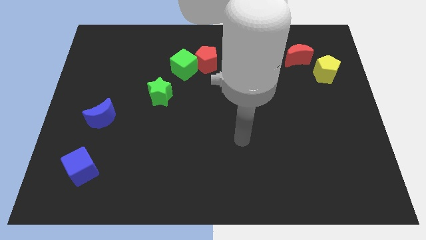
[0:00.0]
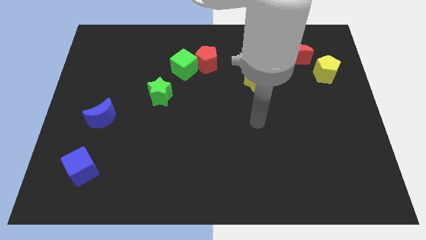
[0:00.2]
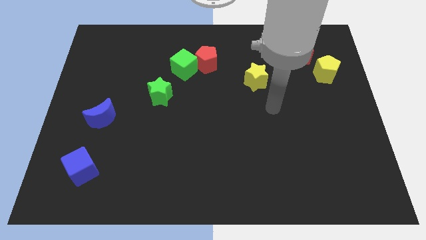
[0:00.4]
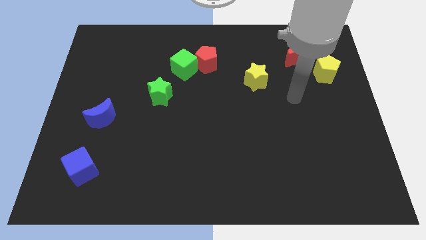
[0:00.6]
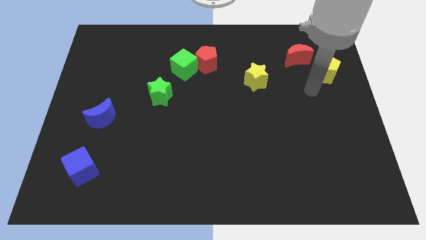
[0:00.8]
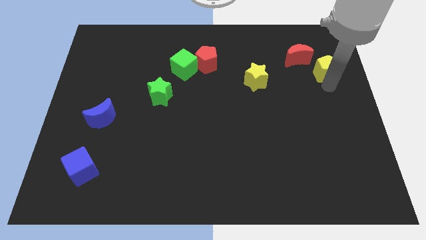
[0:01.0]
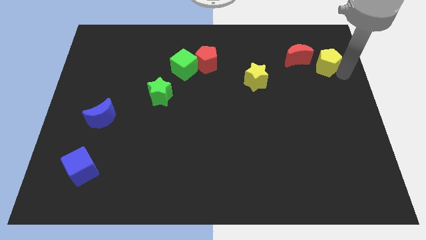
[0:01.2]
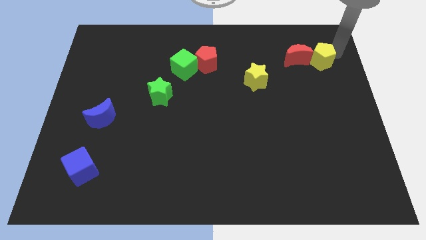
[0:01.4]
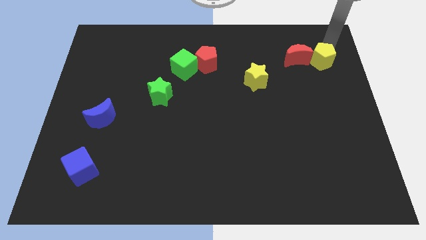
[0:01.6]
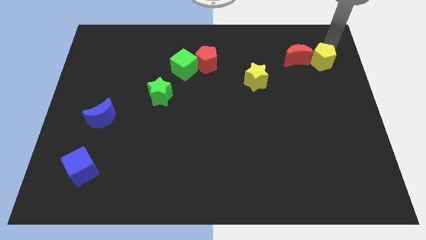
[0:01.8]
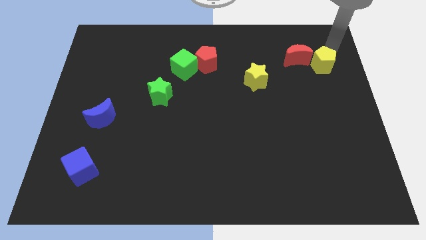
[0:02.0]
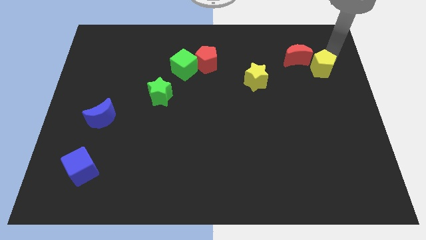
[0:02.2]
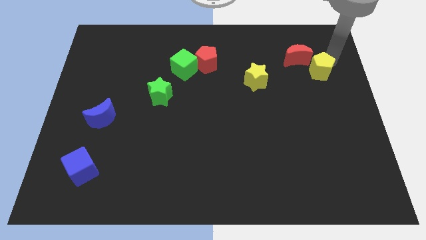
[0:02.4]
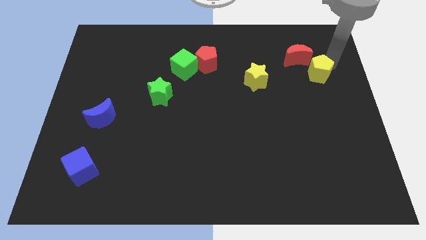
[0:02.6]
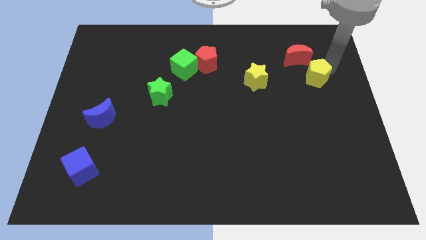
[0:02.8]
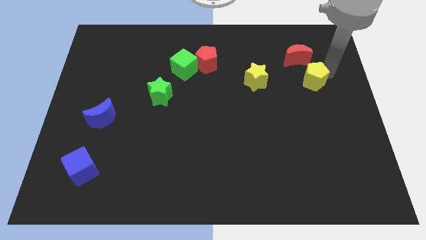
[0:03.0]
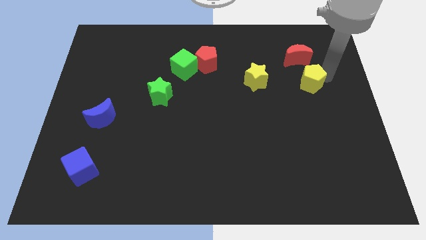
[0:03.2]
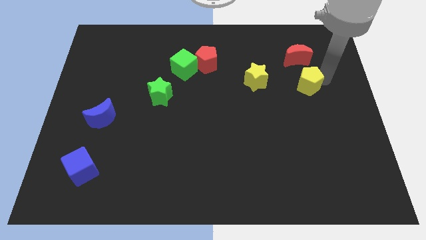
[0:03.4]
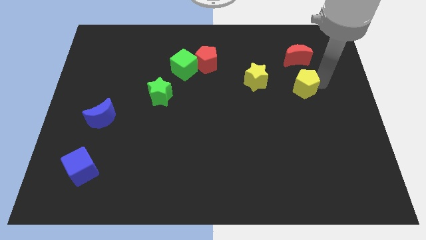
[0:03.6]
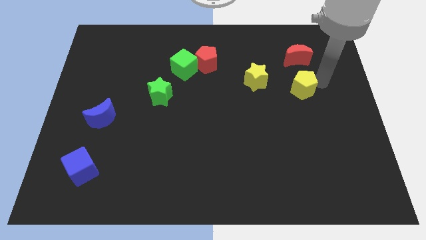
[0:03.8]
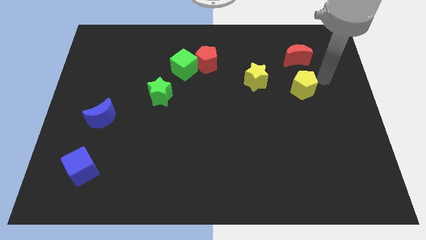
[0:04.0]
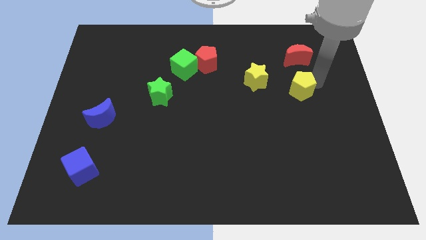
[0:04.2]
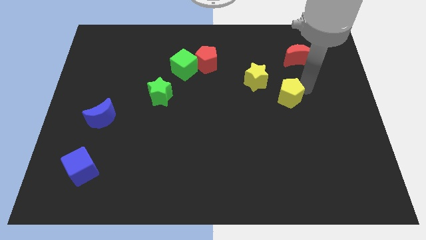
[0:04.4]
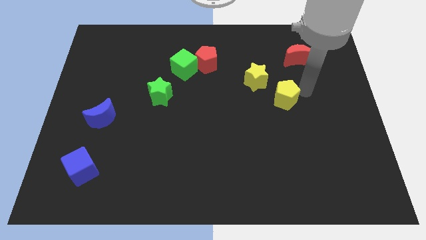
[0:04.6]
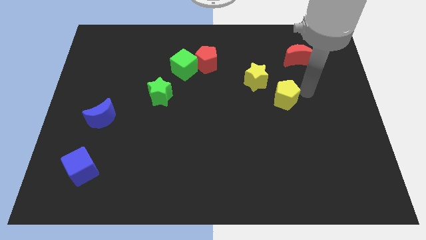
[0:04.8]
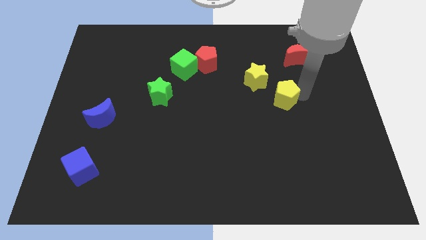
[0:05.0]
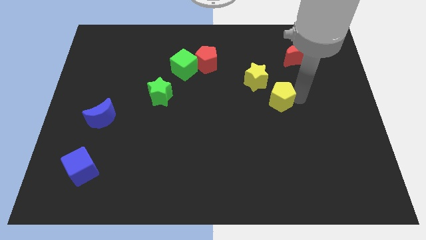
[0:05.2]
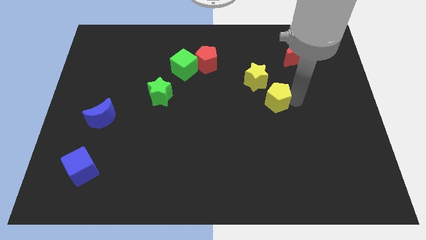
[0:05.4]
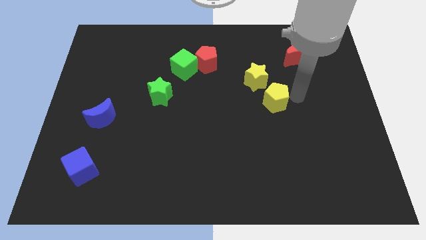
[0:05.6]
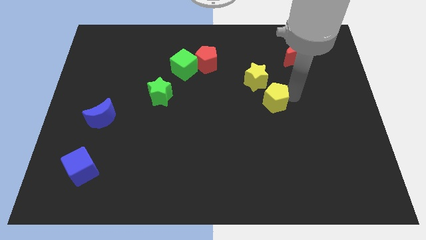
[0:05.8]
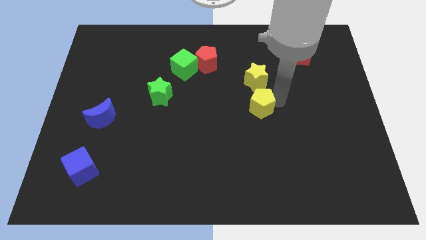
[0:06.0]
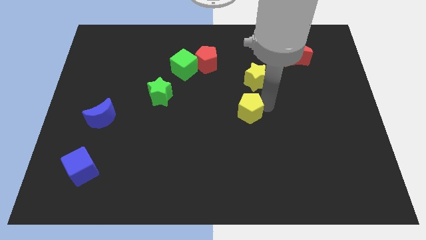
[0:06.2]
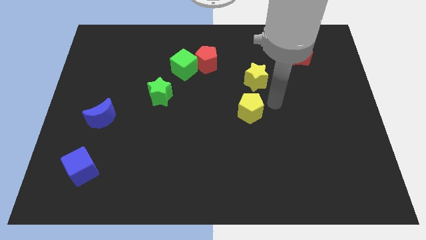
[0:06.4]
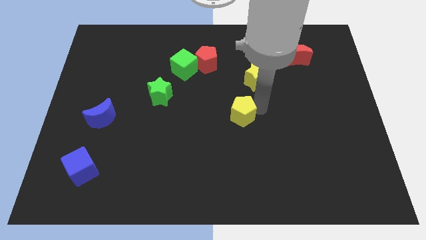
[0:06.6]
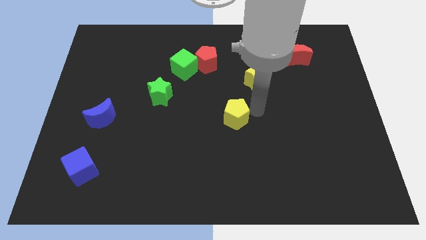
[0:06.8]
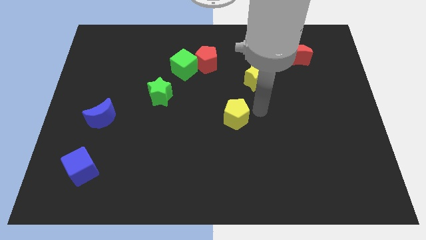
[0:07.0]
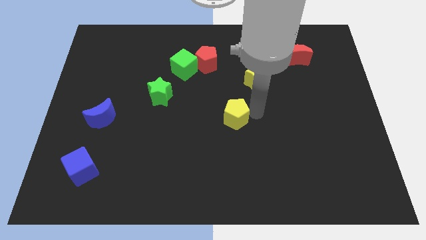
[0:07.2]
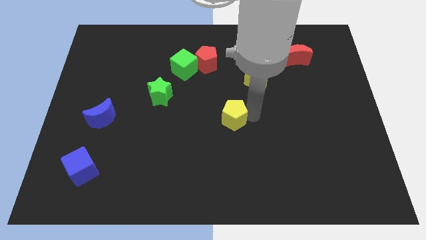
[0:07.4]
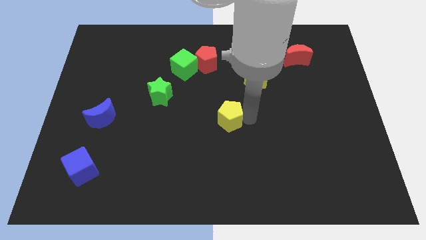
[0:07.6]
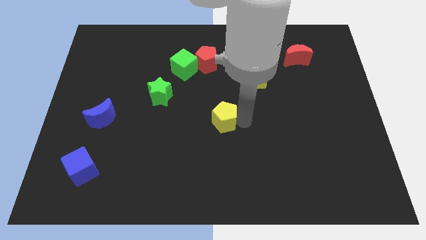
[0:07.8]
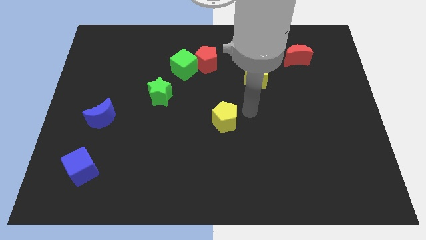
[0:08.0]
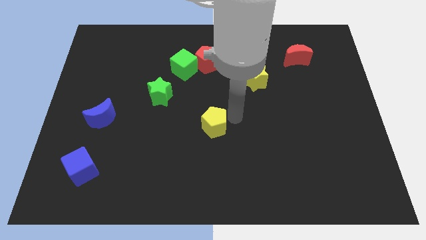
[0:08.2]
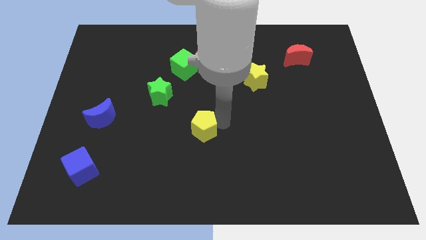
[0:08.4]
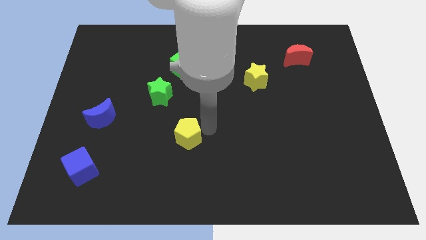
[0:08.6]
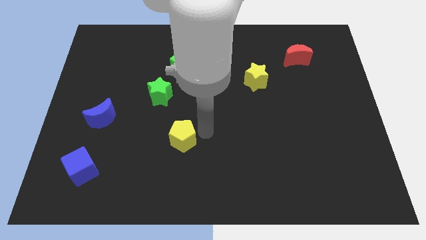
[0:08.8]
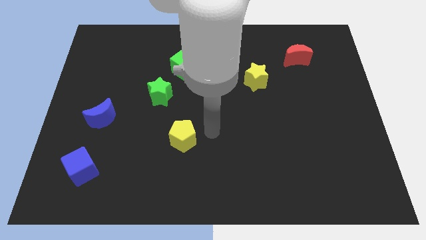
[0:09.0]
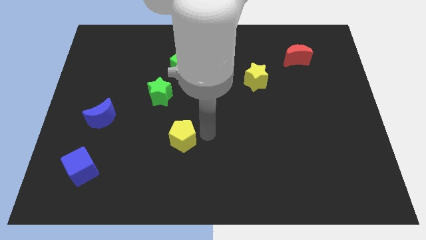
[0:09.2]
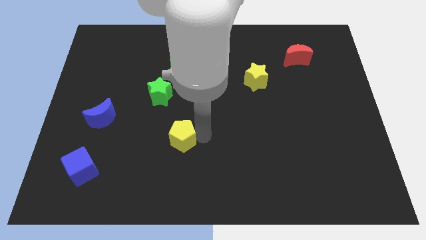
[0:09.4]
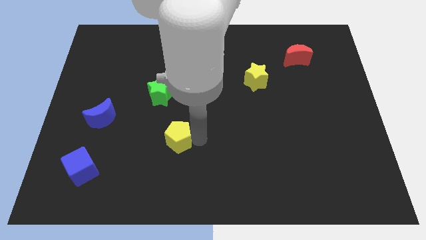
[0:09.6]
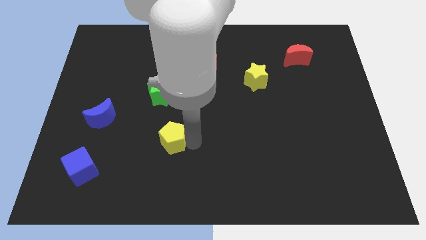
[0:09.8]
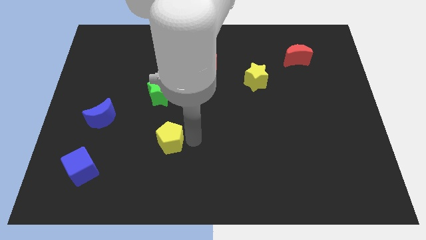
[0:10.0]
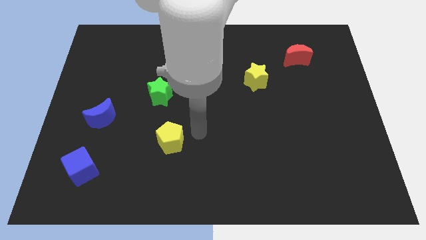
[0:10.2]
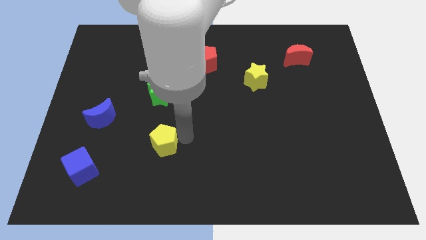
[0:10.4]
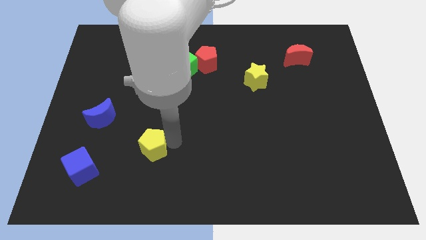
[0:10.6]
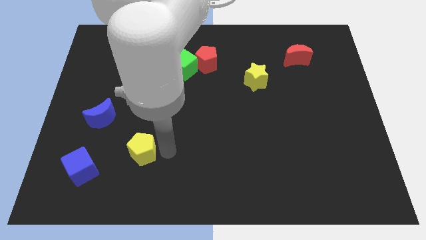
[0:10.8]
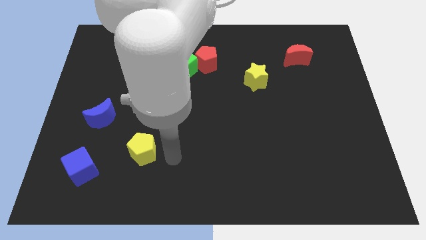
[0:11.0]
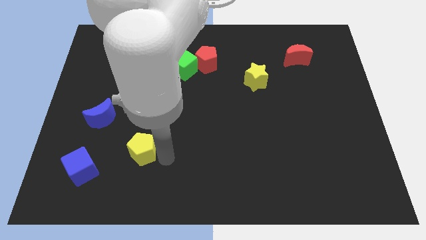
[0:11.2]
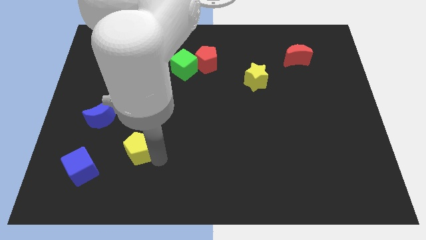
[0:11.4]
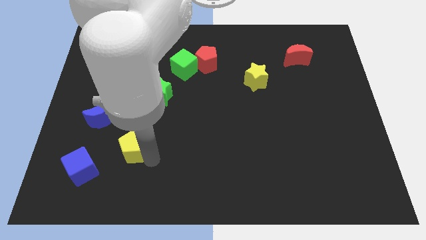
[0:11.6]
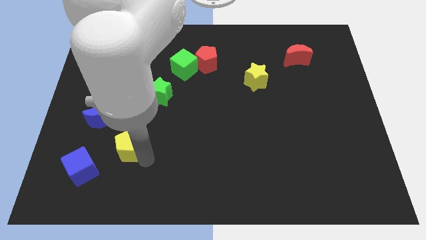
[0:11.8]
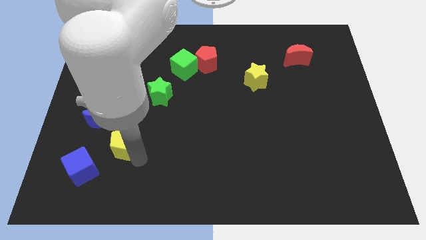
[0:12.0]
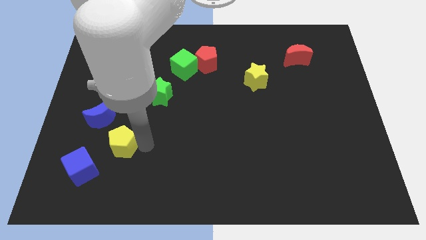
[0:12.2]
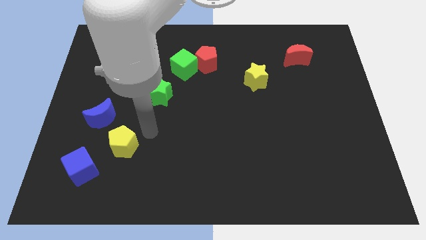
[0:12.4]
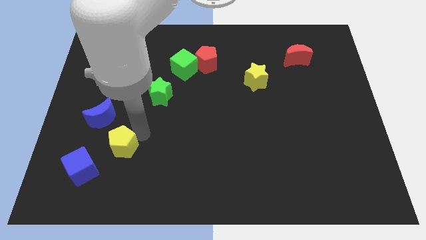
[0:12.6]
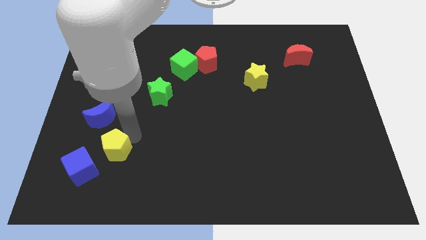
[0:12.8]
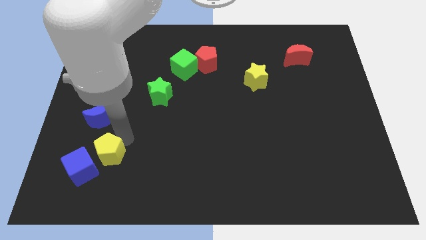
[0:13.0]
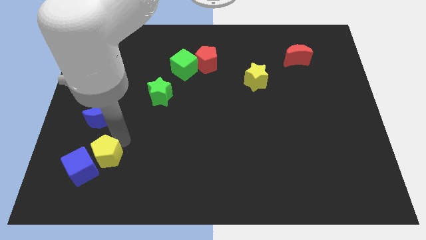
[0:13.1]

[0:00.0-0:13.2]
push the yellow pentagon to the blue cube

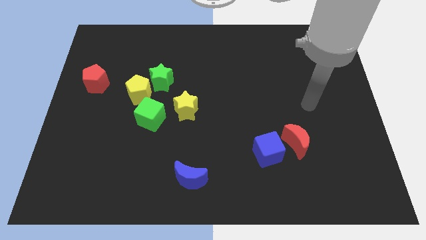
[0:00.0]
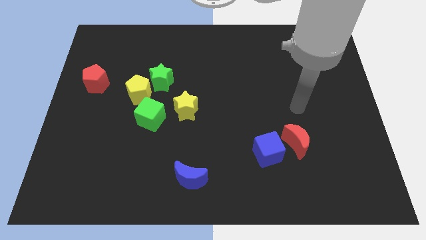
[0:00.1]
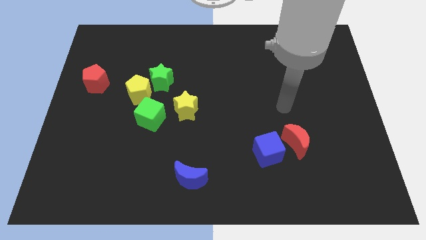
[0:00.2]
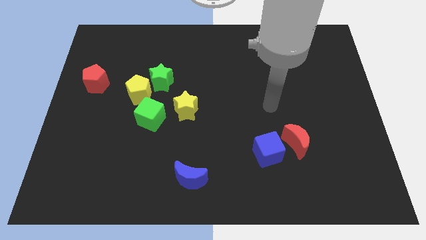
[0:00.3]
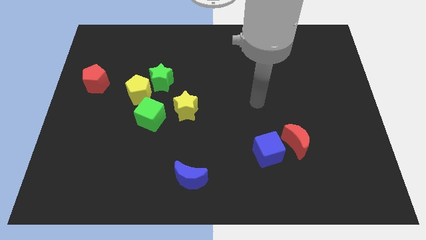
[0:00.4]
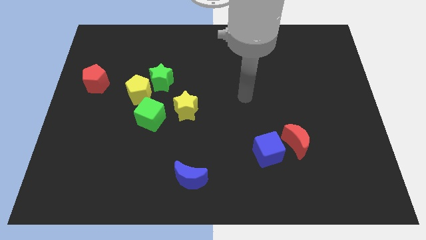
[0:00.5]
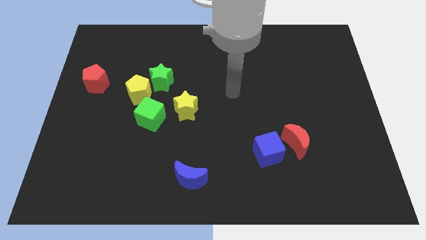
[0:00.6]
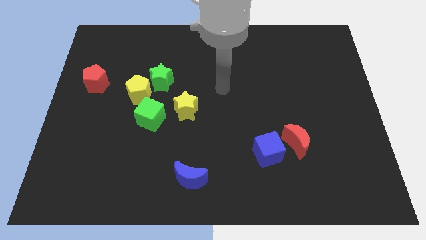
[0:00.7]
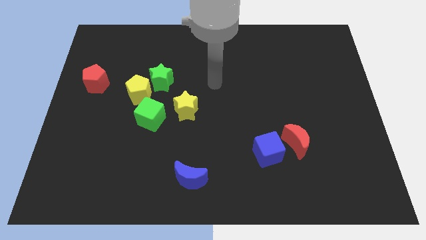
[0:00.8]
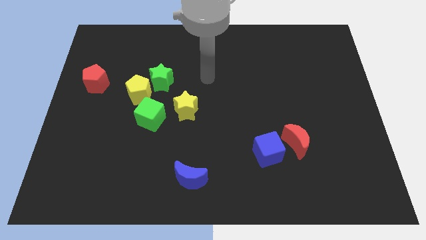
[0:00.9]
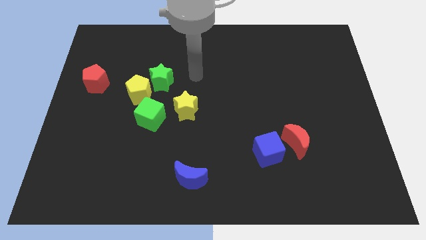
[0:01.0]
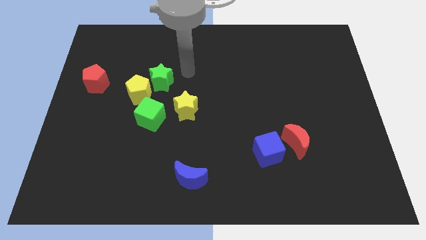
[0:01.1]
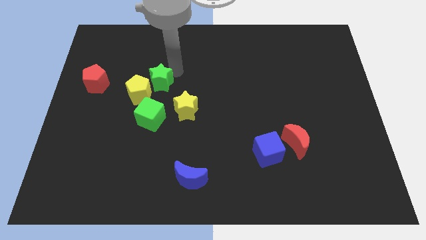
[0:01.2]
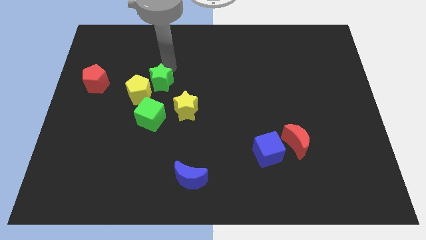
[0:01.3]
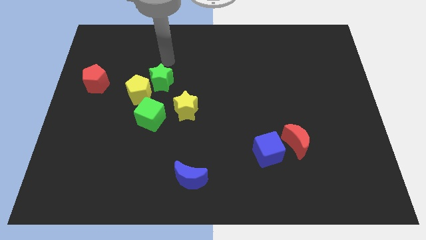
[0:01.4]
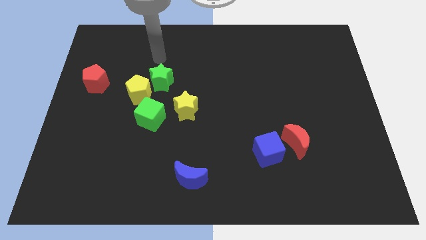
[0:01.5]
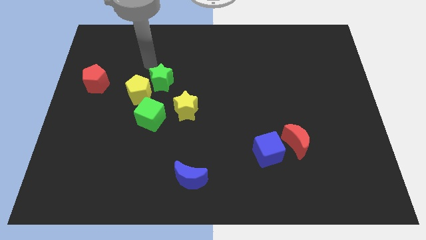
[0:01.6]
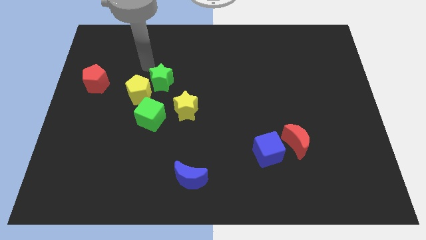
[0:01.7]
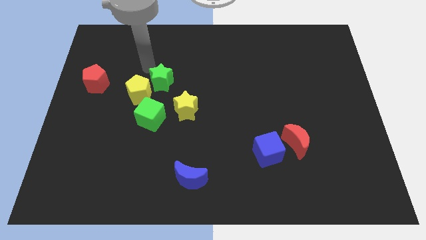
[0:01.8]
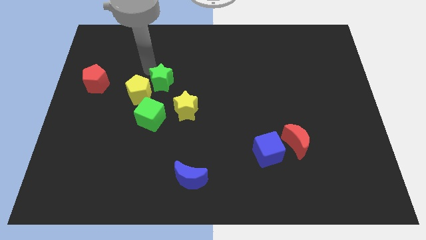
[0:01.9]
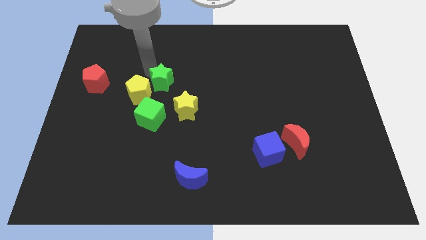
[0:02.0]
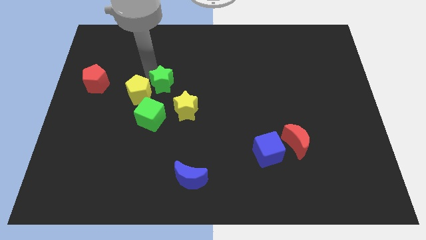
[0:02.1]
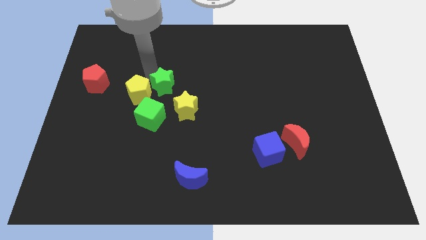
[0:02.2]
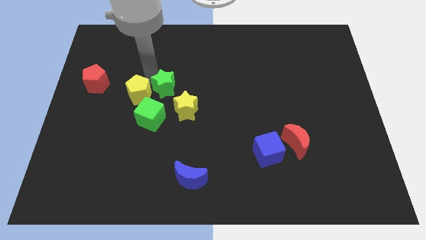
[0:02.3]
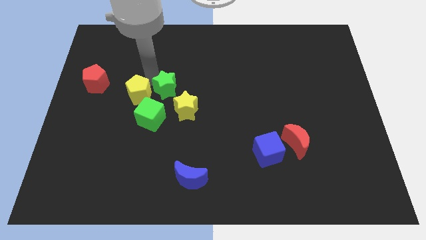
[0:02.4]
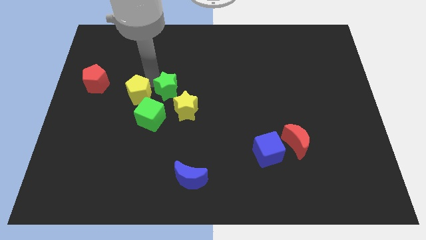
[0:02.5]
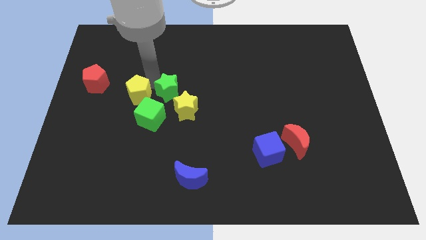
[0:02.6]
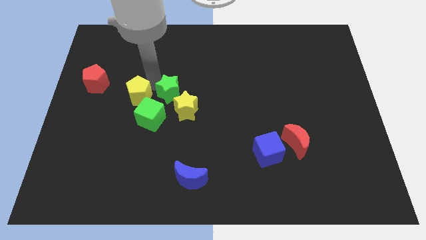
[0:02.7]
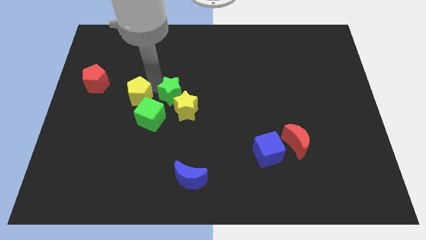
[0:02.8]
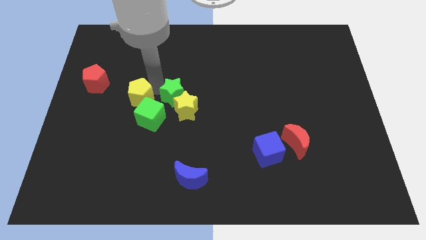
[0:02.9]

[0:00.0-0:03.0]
push the green star towards the yellow star
